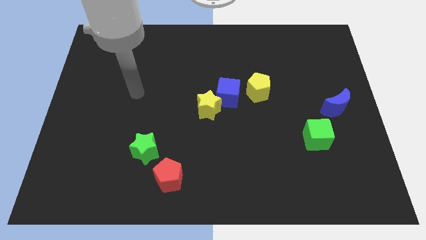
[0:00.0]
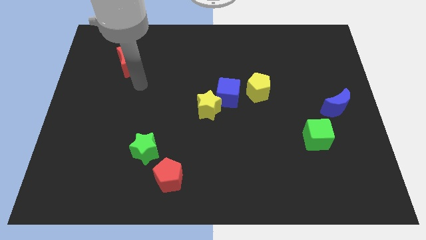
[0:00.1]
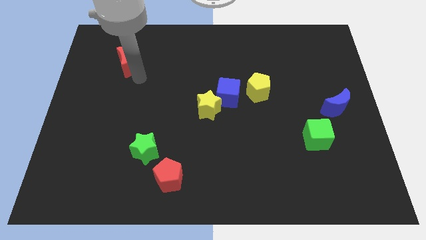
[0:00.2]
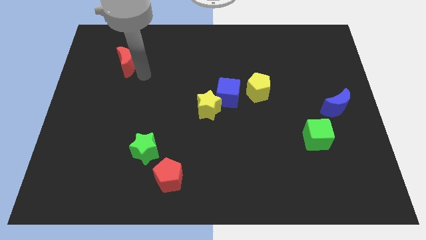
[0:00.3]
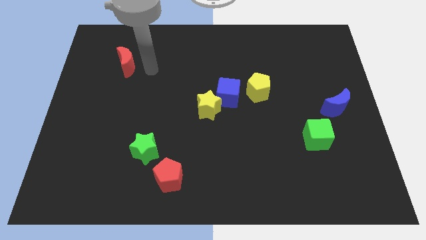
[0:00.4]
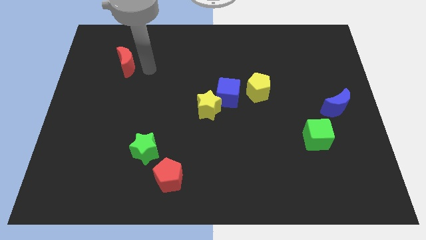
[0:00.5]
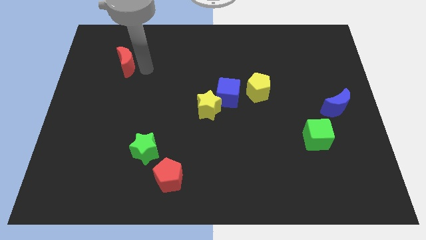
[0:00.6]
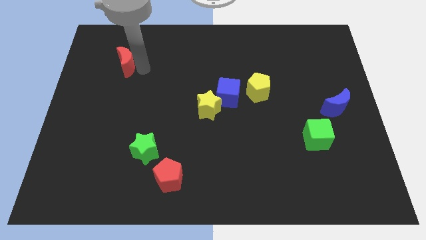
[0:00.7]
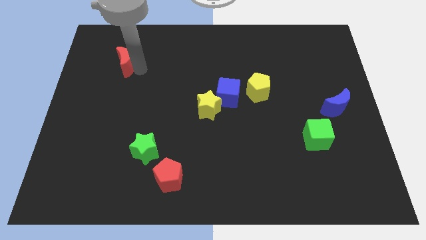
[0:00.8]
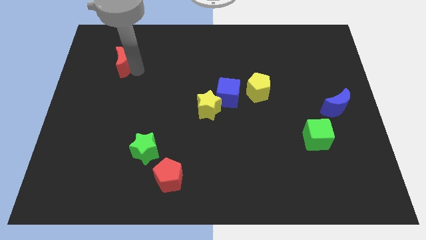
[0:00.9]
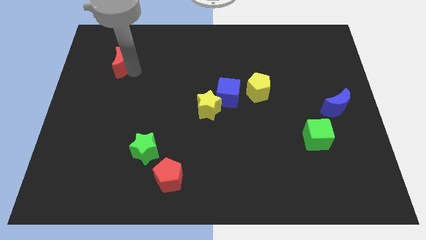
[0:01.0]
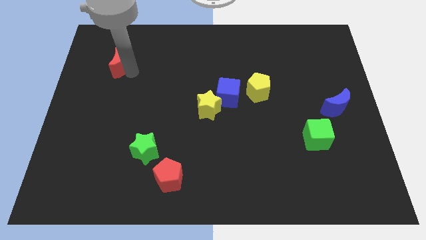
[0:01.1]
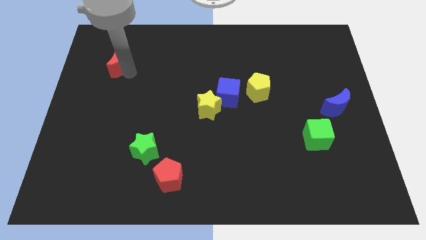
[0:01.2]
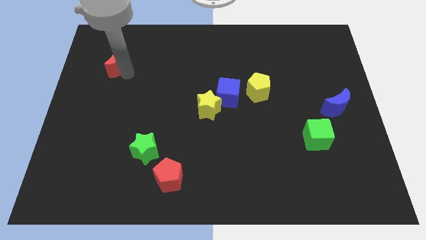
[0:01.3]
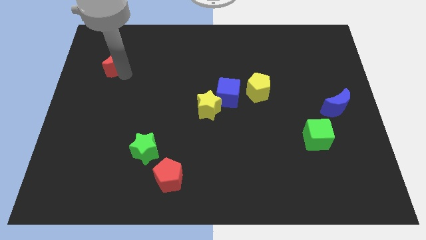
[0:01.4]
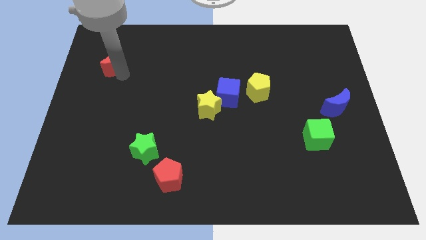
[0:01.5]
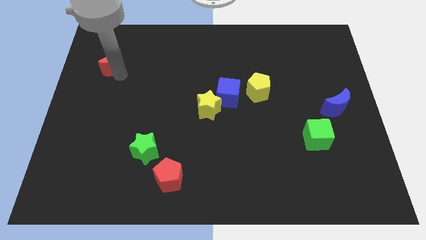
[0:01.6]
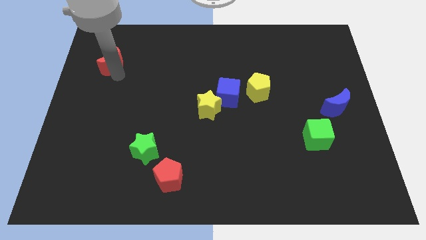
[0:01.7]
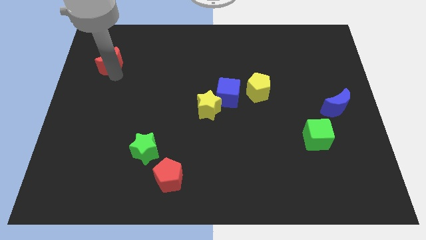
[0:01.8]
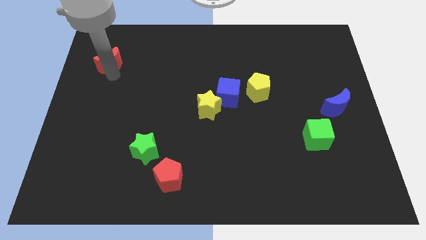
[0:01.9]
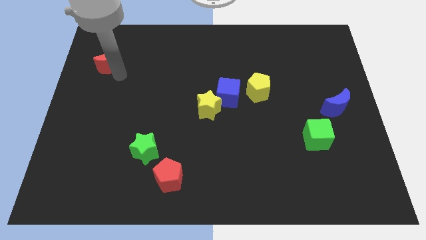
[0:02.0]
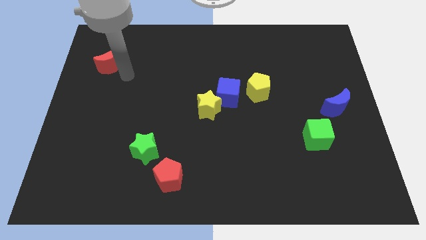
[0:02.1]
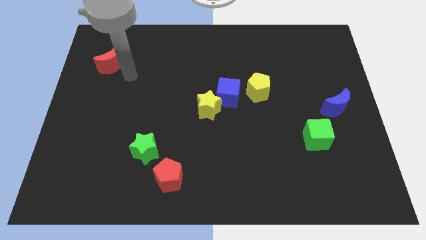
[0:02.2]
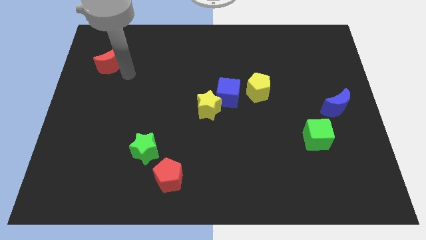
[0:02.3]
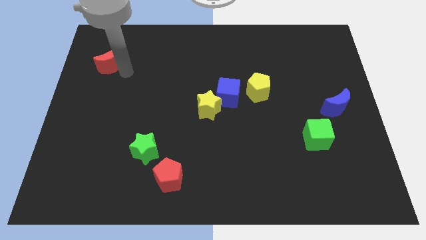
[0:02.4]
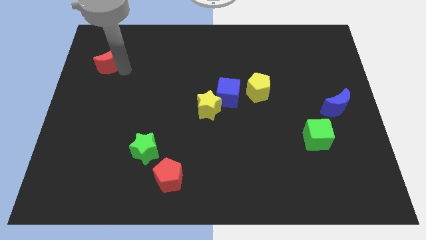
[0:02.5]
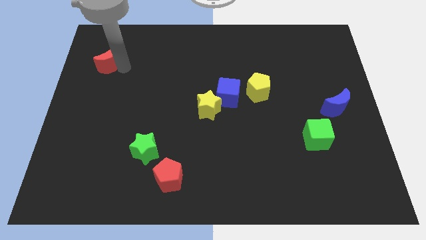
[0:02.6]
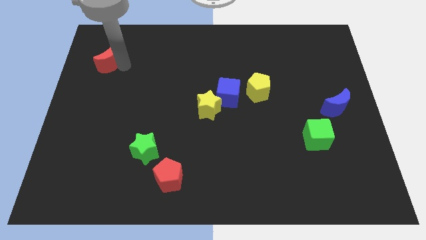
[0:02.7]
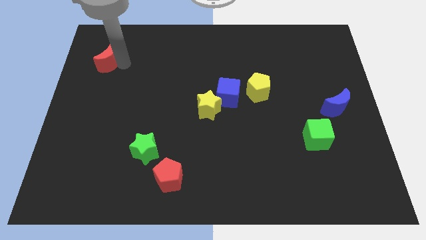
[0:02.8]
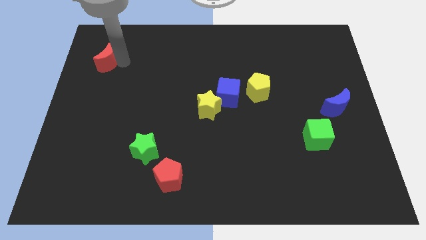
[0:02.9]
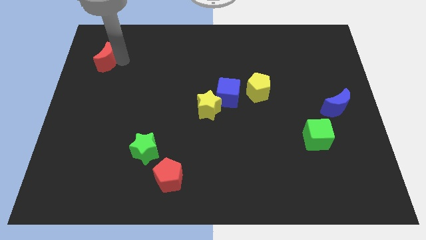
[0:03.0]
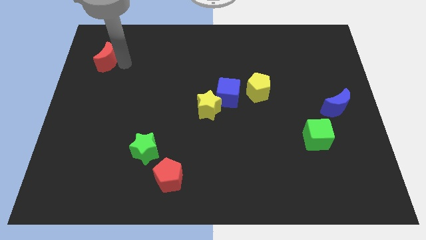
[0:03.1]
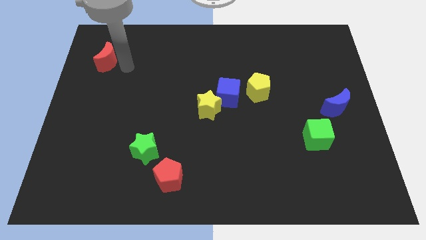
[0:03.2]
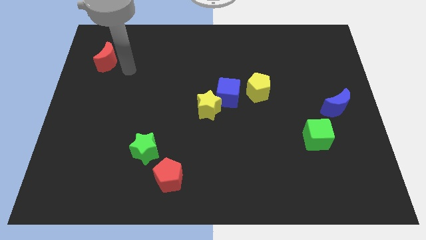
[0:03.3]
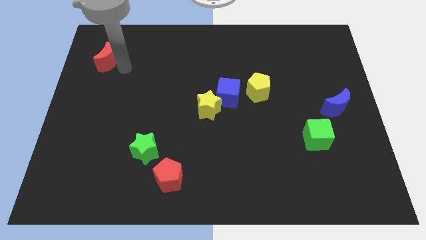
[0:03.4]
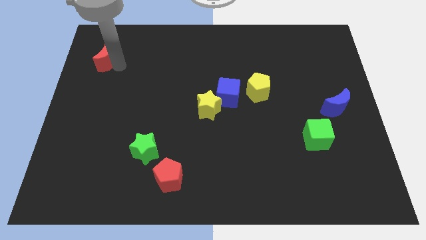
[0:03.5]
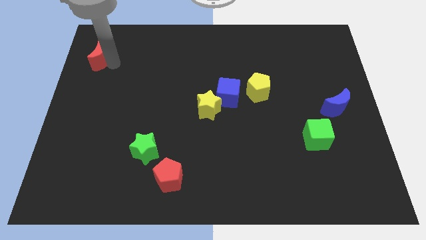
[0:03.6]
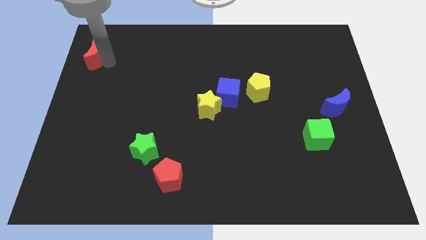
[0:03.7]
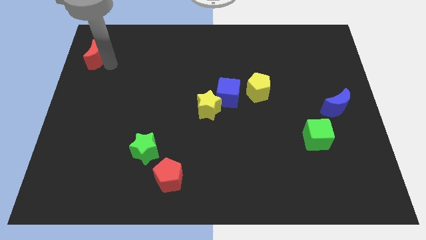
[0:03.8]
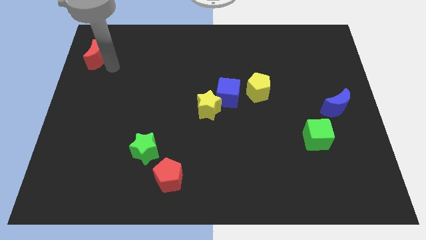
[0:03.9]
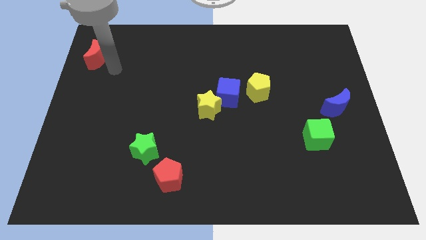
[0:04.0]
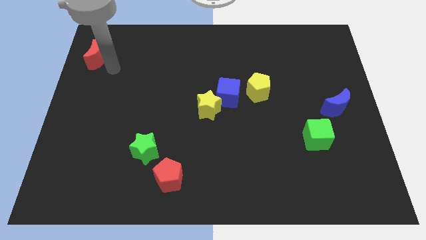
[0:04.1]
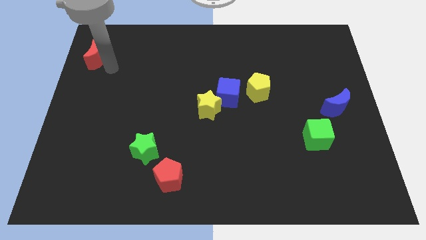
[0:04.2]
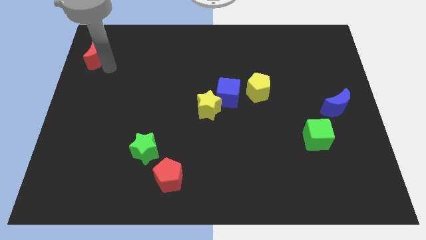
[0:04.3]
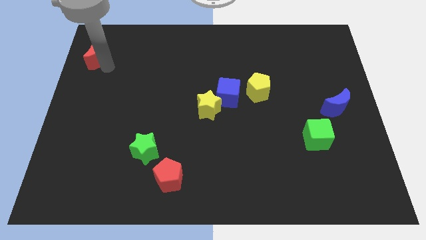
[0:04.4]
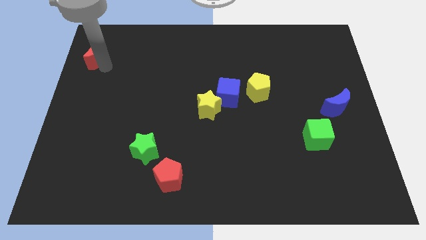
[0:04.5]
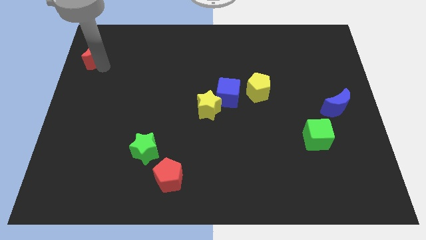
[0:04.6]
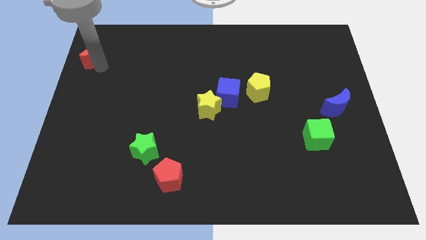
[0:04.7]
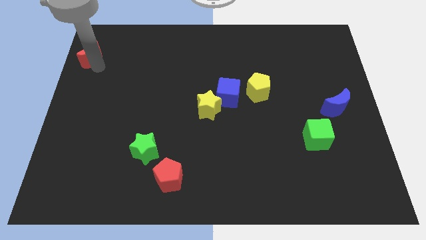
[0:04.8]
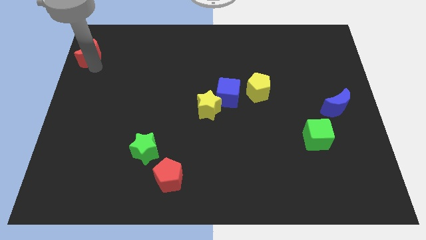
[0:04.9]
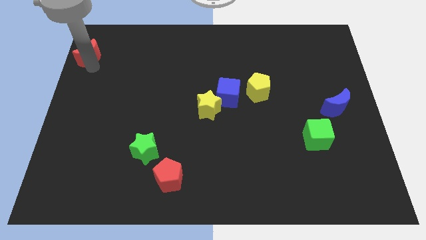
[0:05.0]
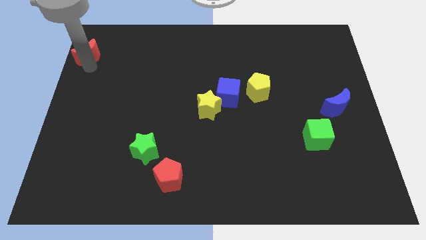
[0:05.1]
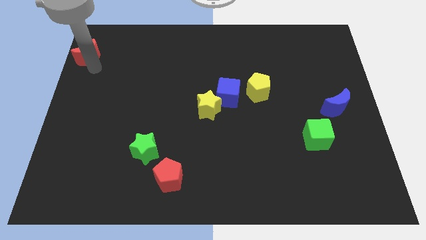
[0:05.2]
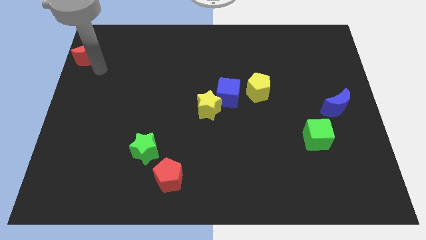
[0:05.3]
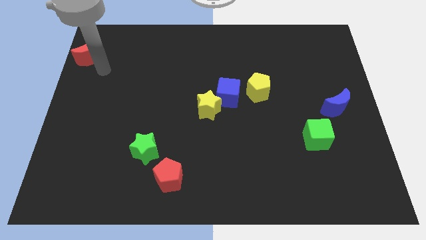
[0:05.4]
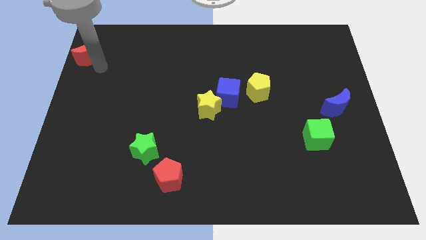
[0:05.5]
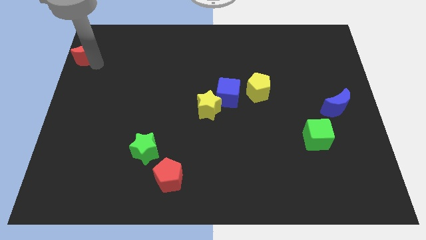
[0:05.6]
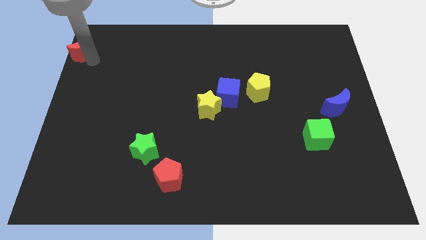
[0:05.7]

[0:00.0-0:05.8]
push the red moon to the top left of the board
